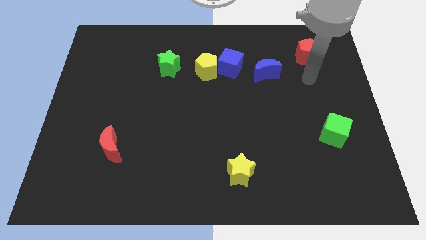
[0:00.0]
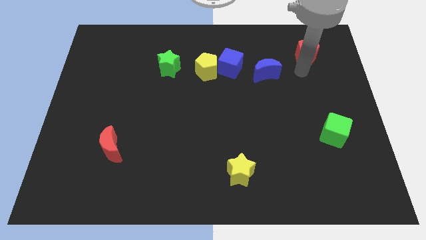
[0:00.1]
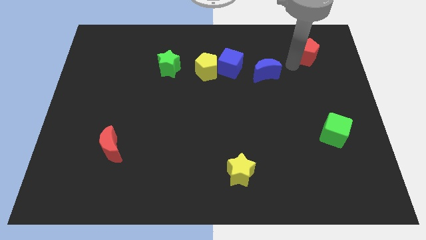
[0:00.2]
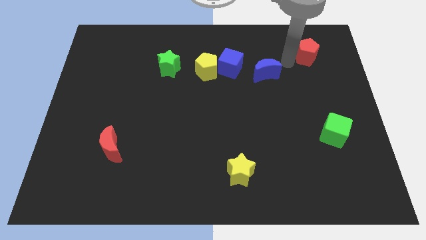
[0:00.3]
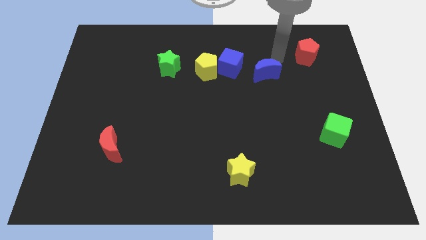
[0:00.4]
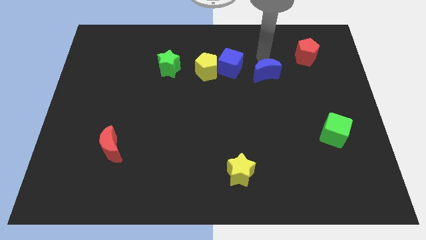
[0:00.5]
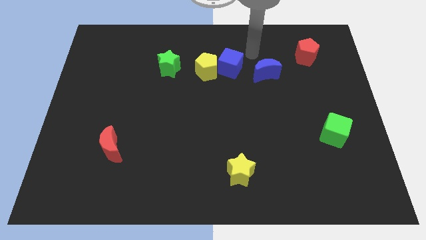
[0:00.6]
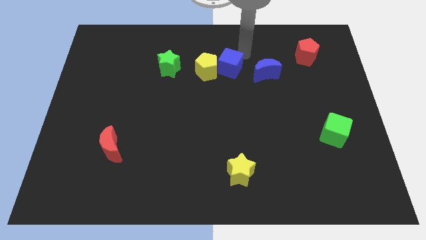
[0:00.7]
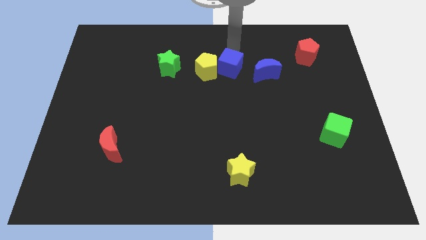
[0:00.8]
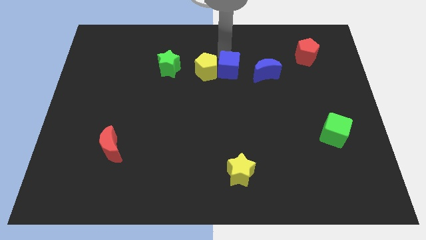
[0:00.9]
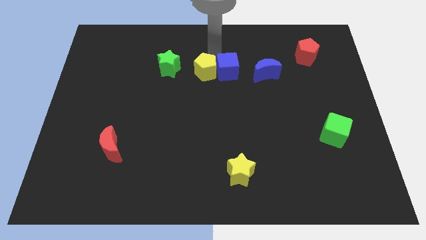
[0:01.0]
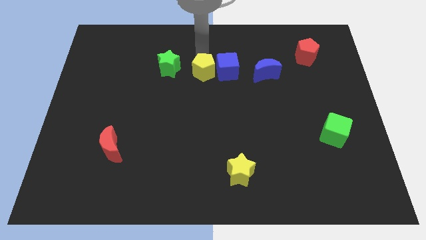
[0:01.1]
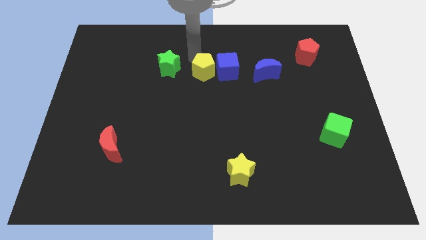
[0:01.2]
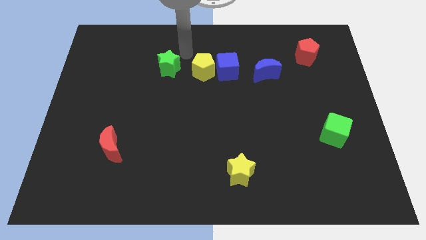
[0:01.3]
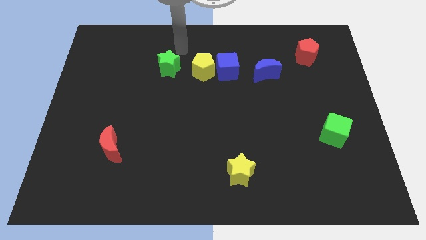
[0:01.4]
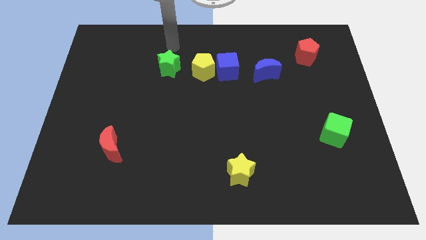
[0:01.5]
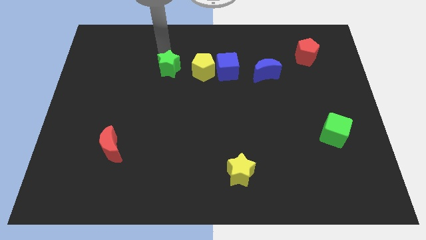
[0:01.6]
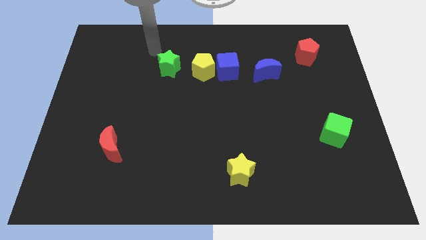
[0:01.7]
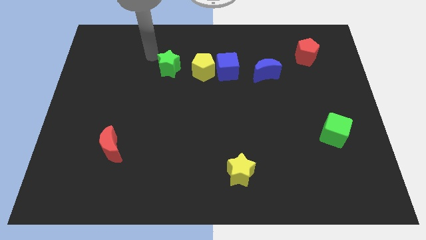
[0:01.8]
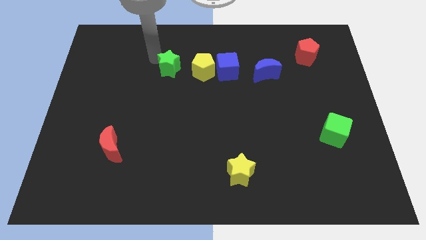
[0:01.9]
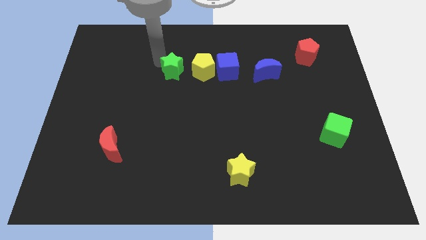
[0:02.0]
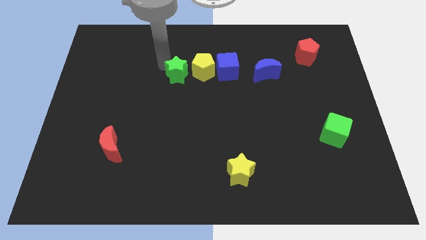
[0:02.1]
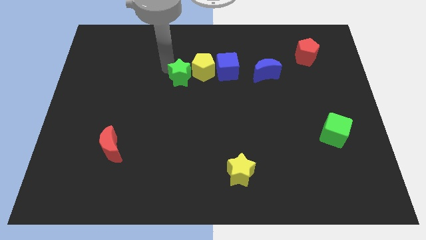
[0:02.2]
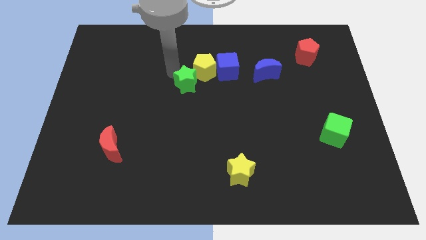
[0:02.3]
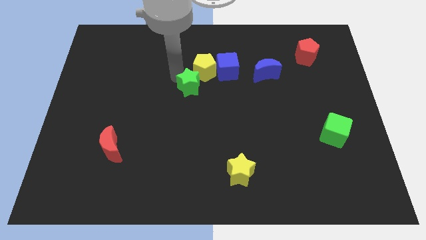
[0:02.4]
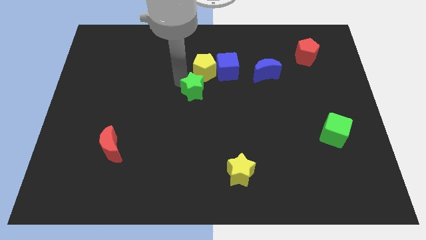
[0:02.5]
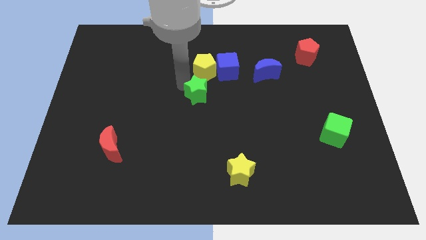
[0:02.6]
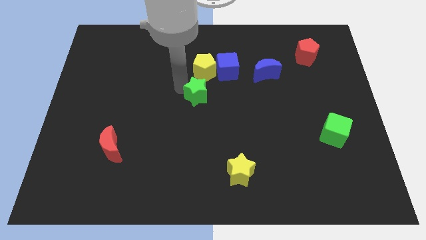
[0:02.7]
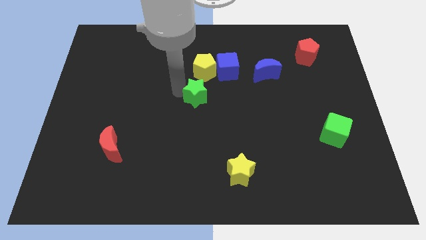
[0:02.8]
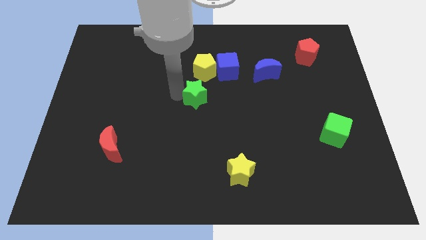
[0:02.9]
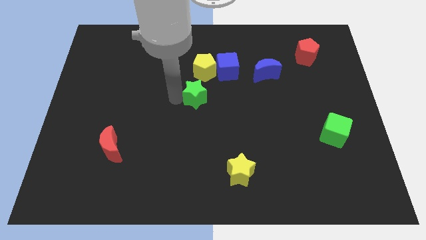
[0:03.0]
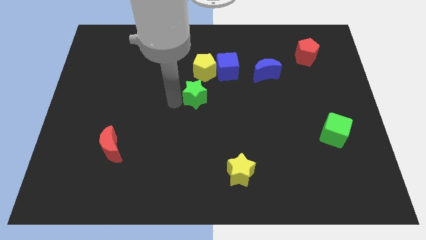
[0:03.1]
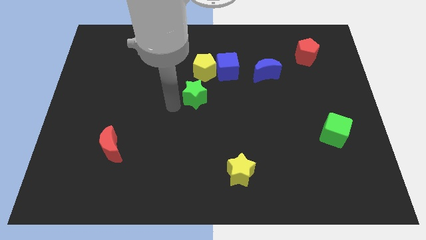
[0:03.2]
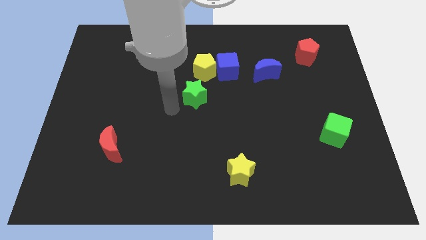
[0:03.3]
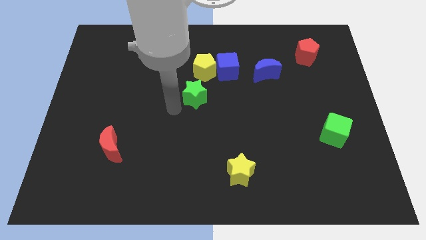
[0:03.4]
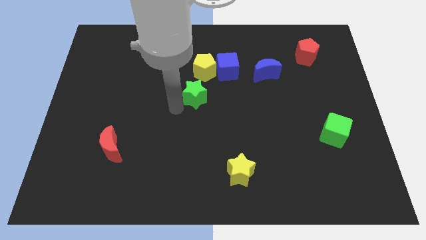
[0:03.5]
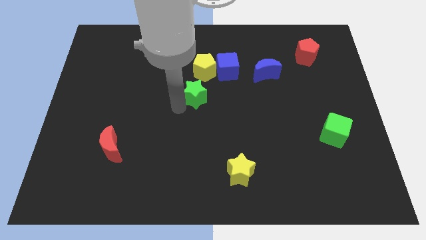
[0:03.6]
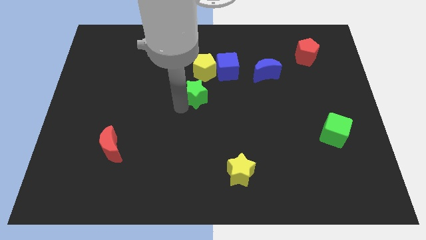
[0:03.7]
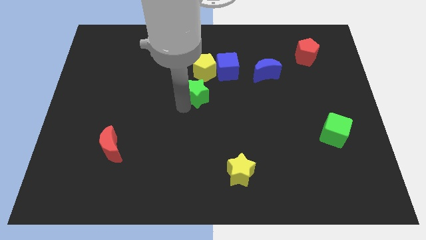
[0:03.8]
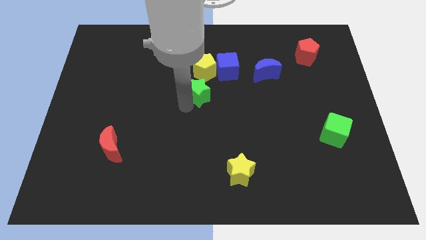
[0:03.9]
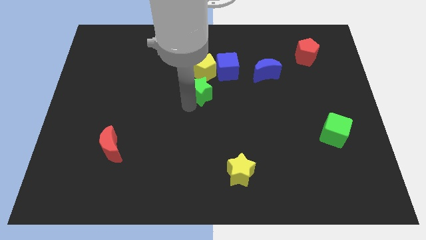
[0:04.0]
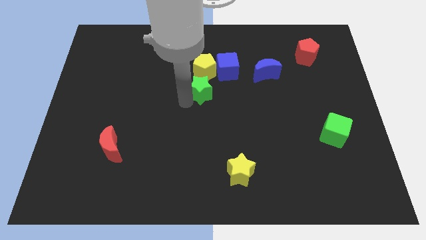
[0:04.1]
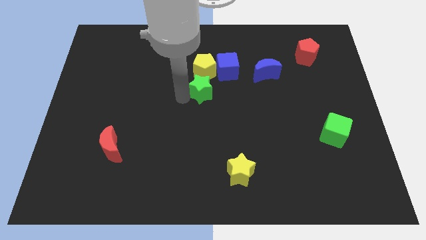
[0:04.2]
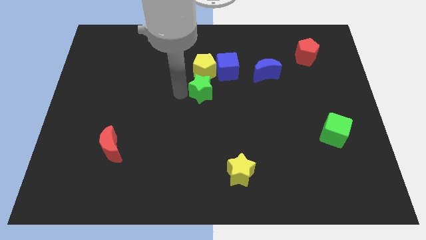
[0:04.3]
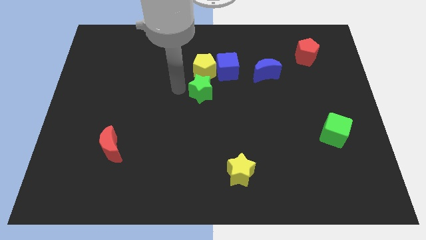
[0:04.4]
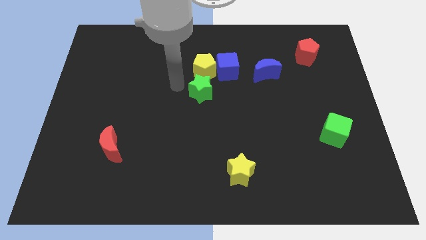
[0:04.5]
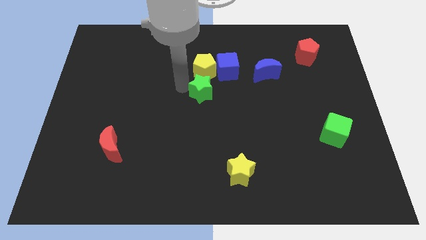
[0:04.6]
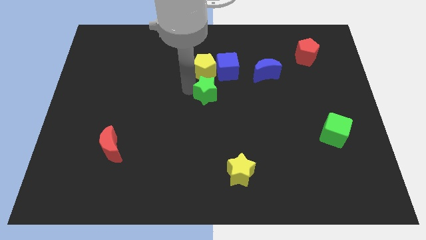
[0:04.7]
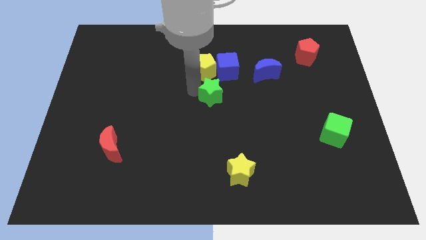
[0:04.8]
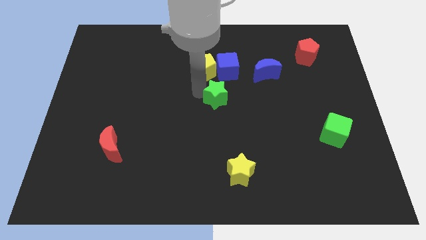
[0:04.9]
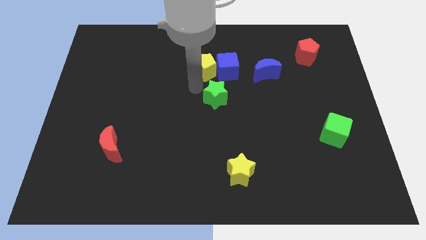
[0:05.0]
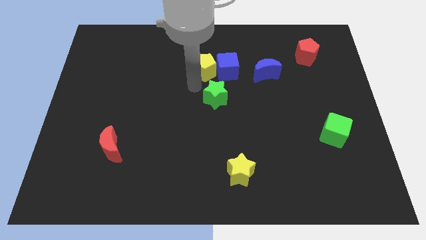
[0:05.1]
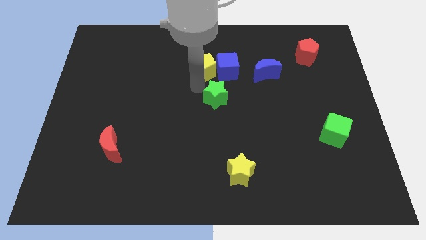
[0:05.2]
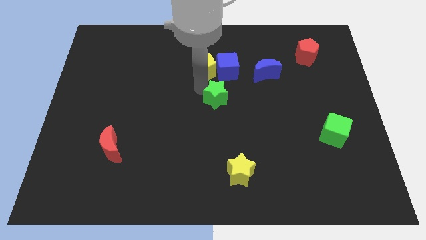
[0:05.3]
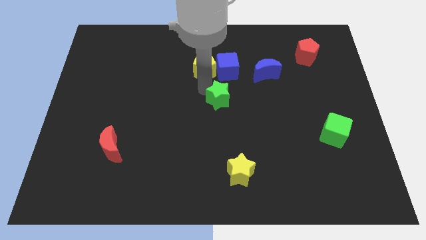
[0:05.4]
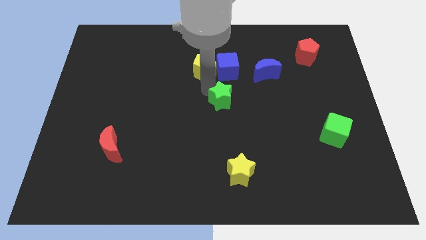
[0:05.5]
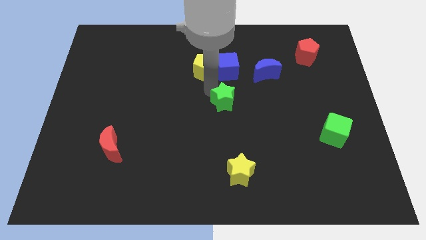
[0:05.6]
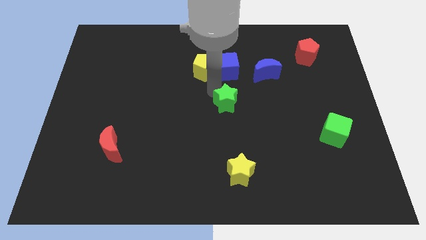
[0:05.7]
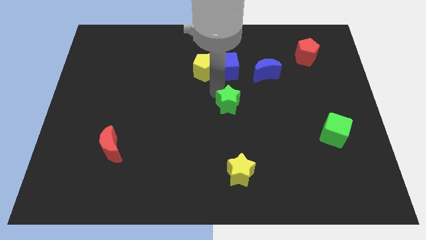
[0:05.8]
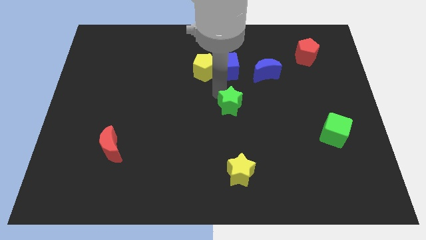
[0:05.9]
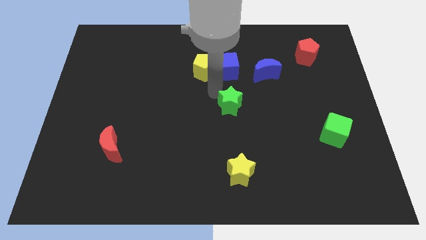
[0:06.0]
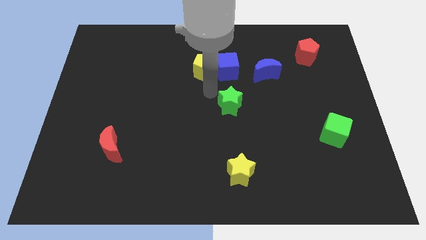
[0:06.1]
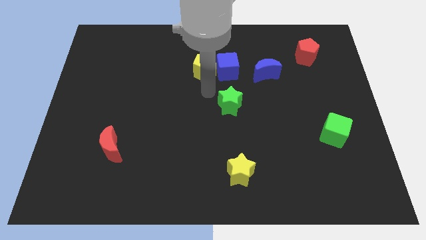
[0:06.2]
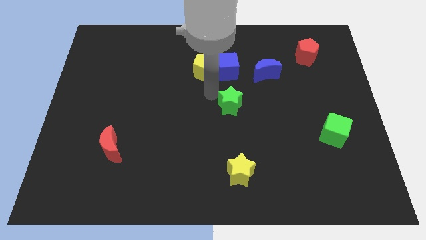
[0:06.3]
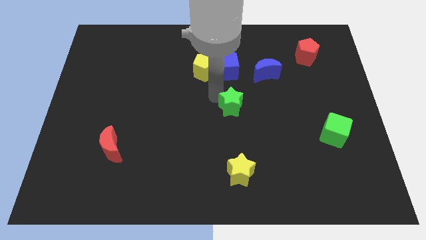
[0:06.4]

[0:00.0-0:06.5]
slide the green star downwards and right

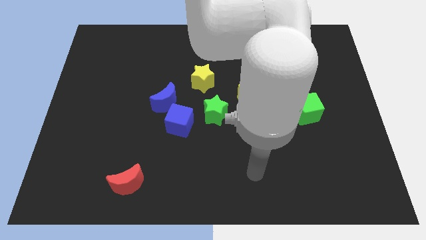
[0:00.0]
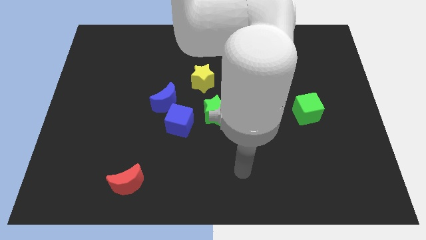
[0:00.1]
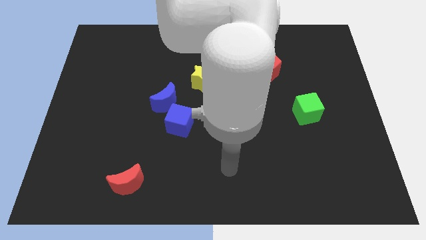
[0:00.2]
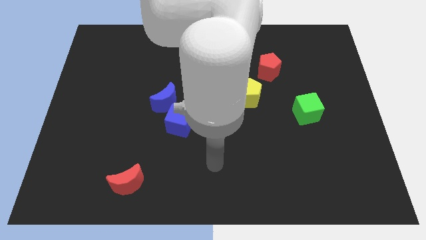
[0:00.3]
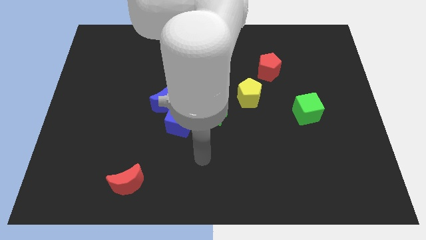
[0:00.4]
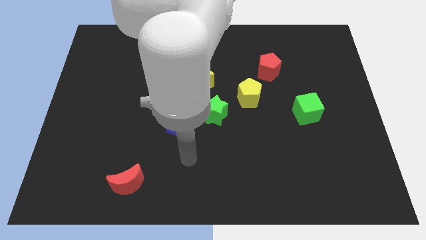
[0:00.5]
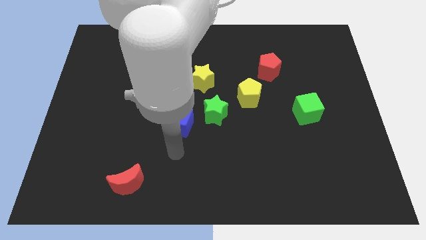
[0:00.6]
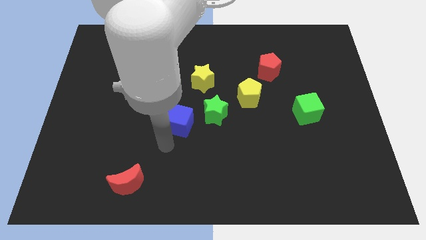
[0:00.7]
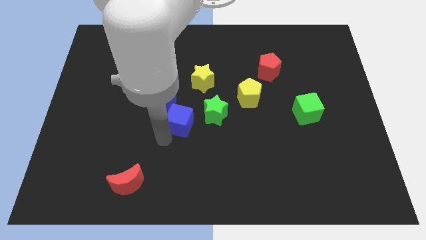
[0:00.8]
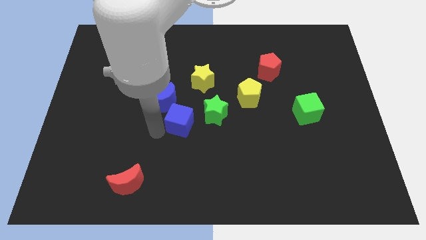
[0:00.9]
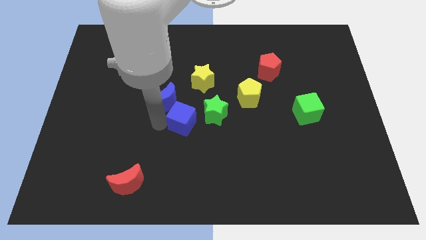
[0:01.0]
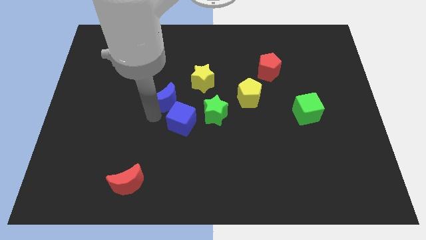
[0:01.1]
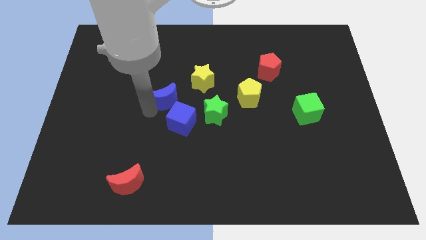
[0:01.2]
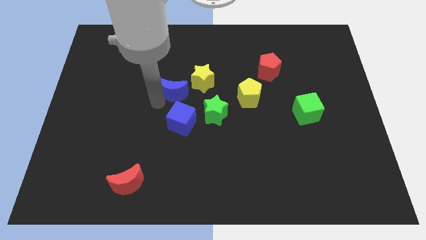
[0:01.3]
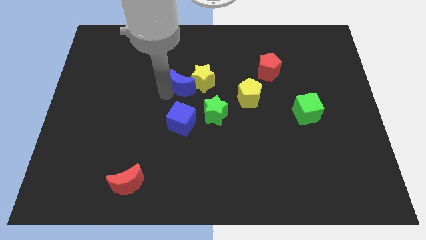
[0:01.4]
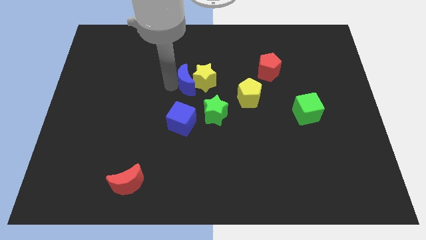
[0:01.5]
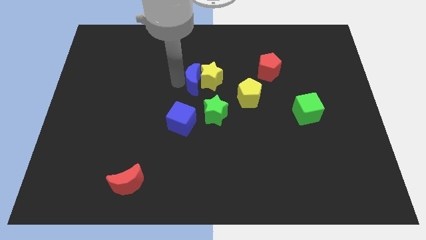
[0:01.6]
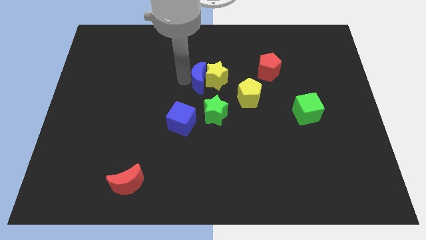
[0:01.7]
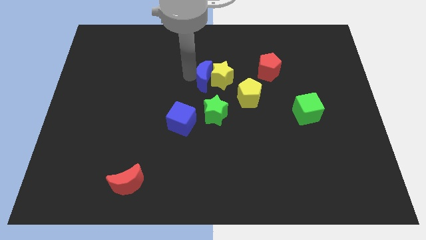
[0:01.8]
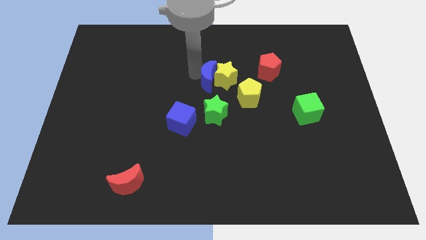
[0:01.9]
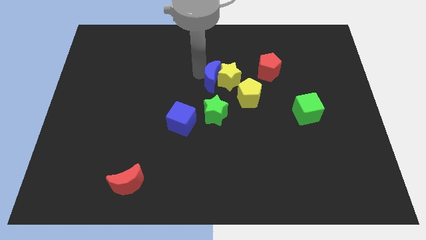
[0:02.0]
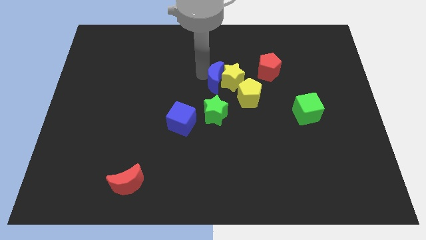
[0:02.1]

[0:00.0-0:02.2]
slightly push the yellow star right
